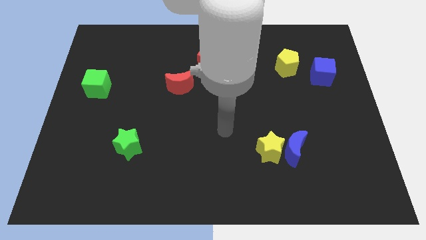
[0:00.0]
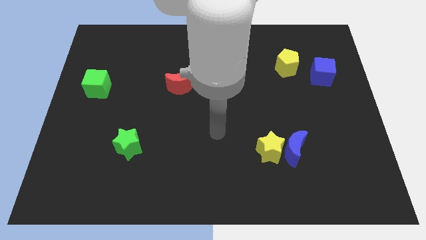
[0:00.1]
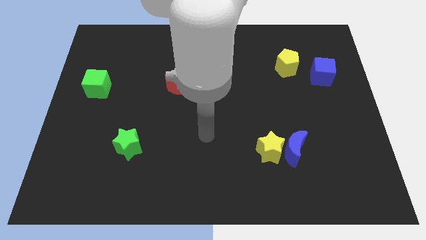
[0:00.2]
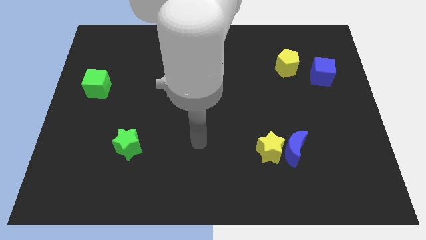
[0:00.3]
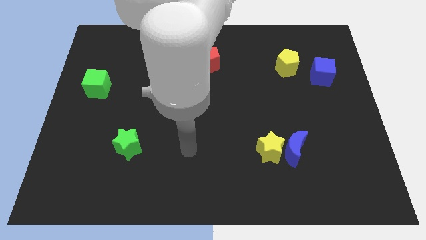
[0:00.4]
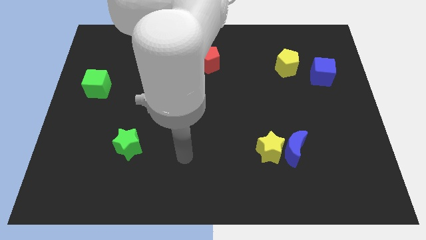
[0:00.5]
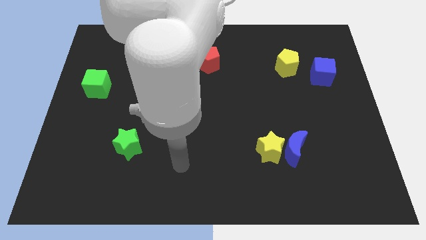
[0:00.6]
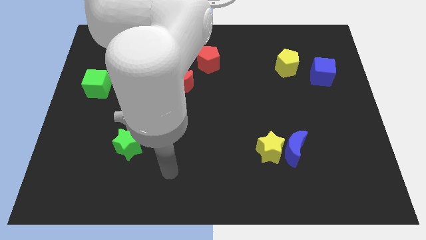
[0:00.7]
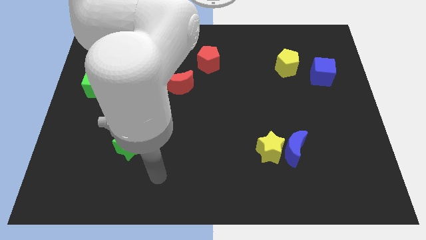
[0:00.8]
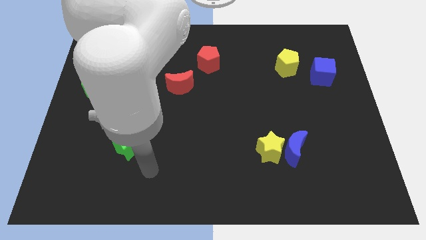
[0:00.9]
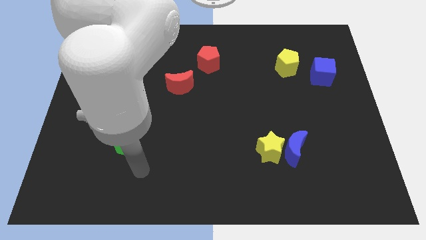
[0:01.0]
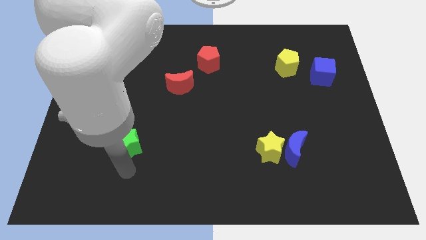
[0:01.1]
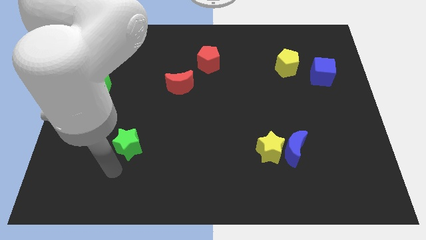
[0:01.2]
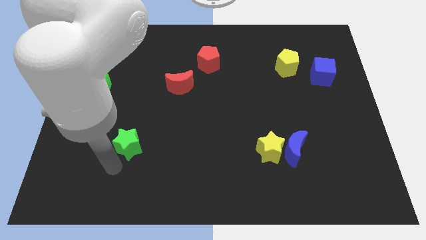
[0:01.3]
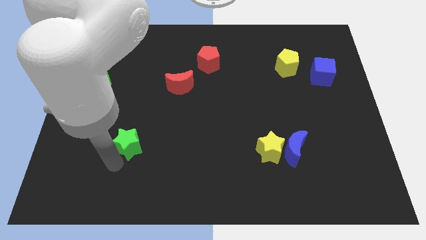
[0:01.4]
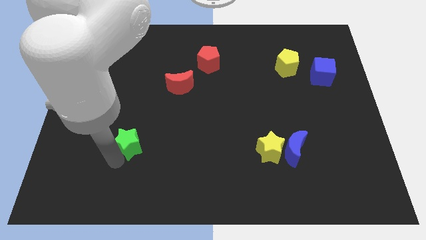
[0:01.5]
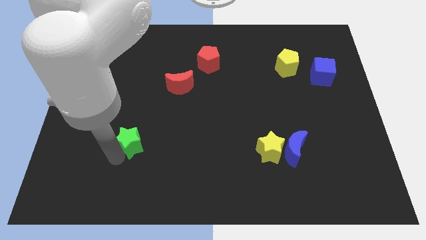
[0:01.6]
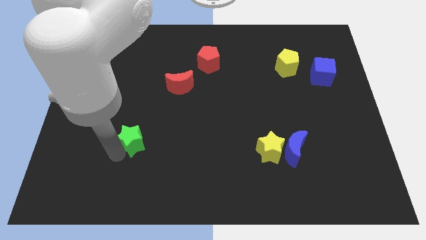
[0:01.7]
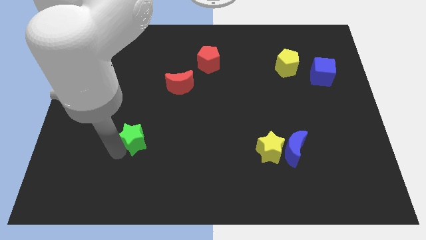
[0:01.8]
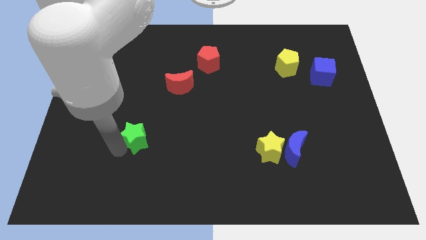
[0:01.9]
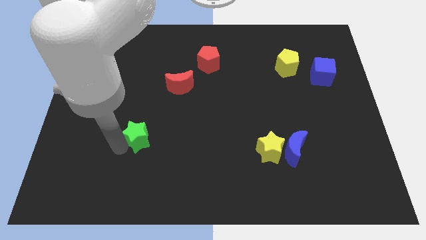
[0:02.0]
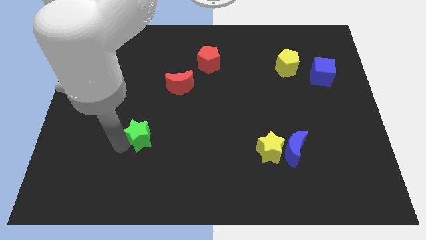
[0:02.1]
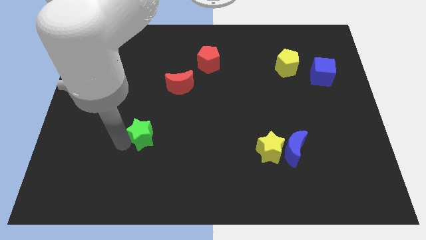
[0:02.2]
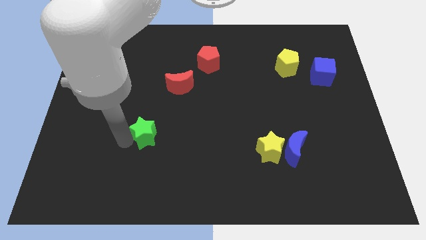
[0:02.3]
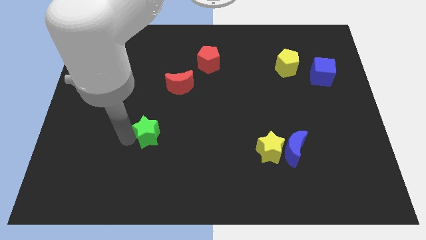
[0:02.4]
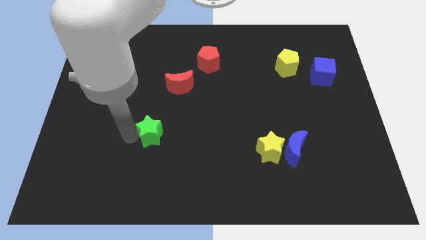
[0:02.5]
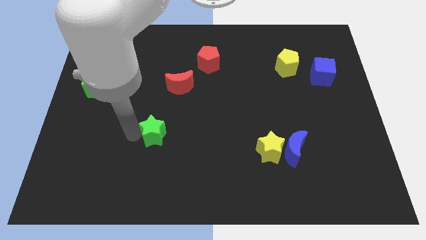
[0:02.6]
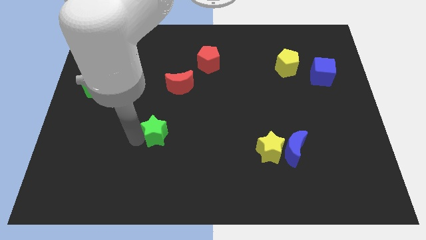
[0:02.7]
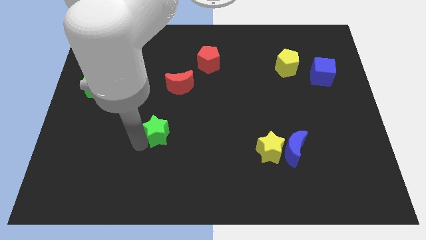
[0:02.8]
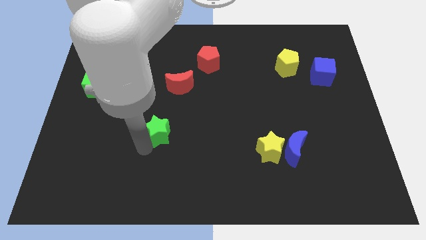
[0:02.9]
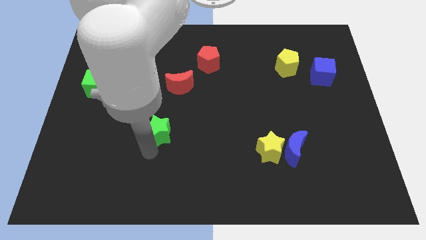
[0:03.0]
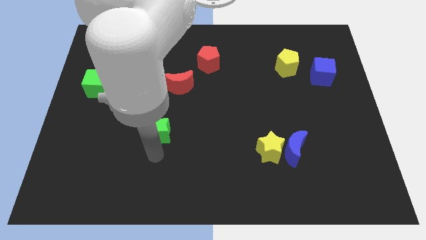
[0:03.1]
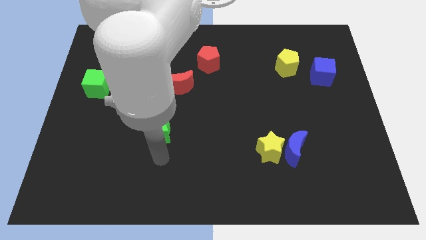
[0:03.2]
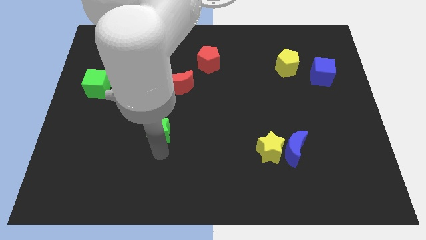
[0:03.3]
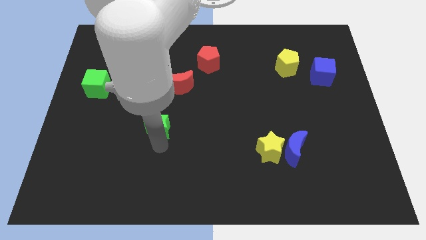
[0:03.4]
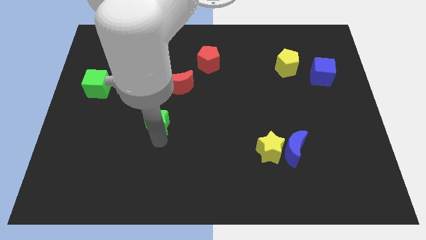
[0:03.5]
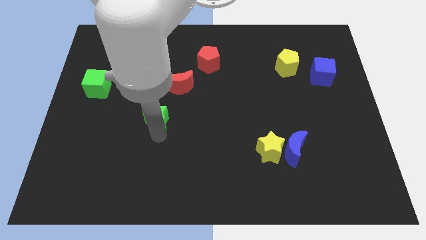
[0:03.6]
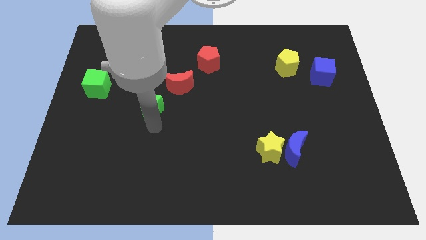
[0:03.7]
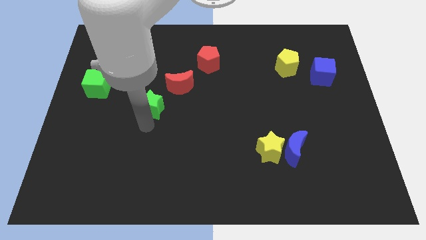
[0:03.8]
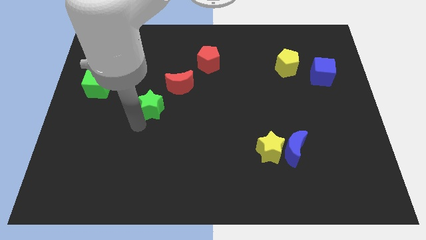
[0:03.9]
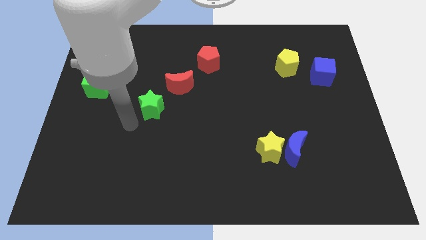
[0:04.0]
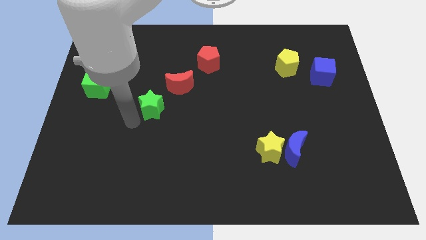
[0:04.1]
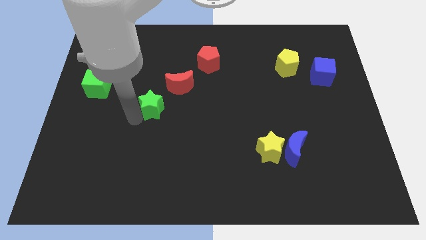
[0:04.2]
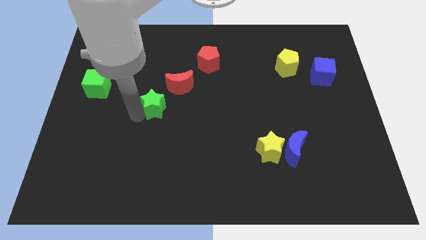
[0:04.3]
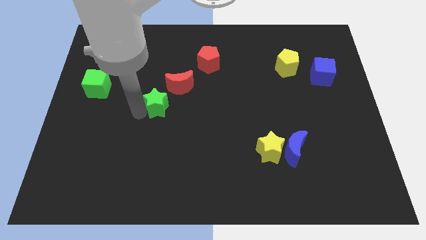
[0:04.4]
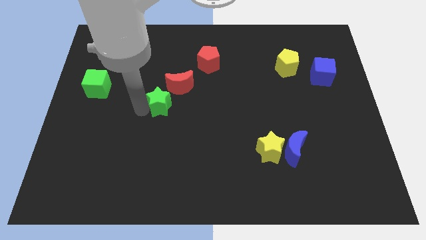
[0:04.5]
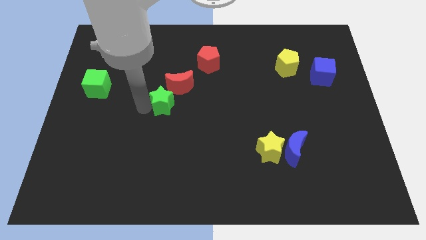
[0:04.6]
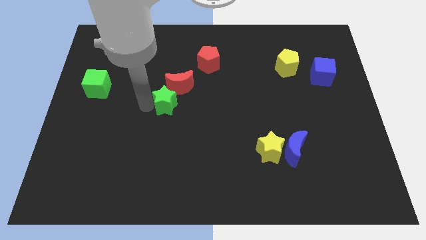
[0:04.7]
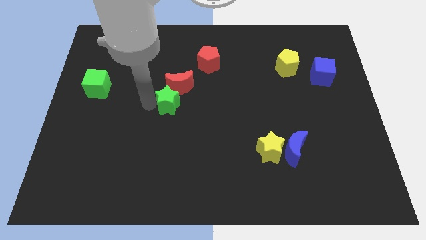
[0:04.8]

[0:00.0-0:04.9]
put the green star next to the red moon

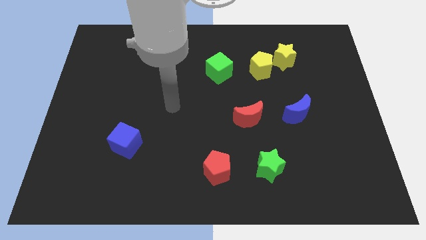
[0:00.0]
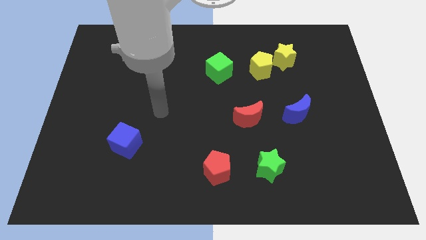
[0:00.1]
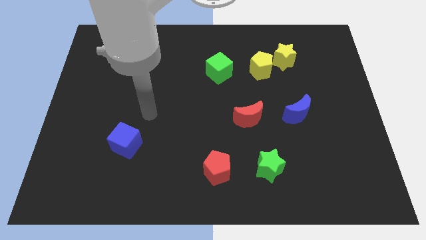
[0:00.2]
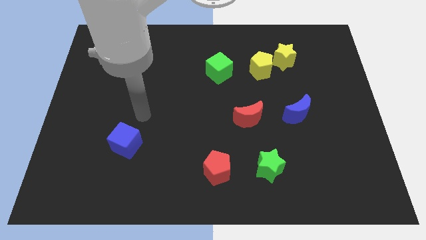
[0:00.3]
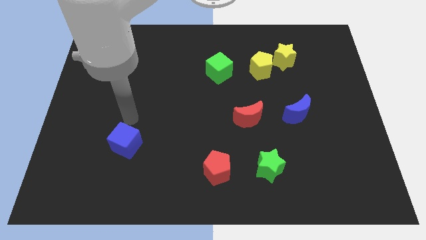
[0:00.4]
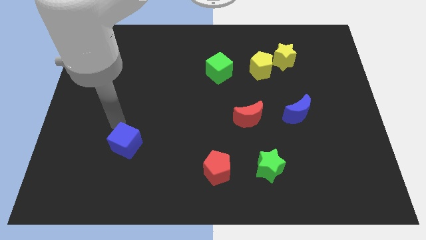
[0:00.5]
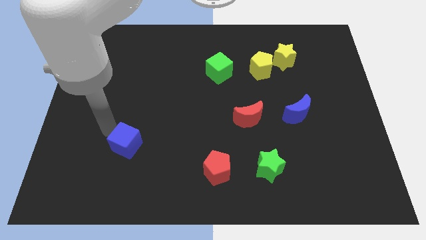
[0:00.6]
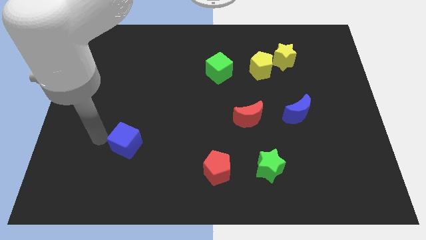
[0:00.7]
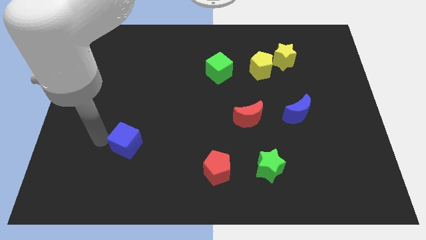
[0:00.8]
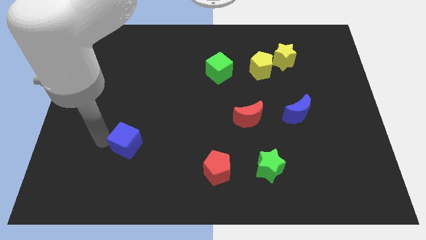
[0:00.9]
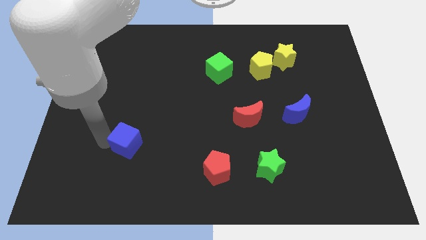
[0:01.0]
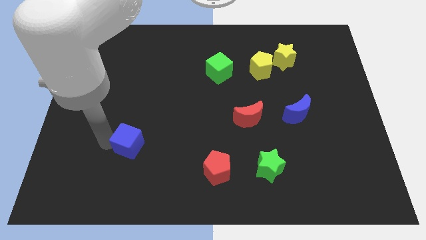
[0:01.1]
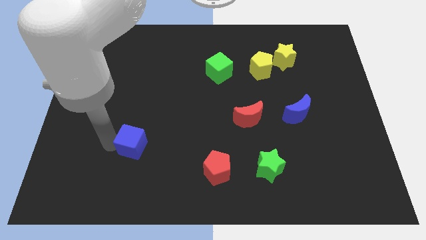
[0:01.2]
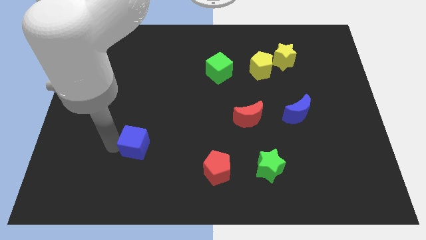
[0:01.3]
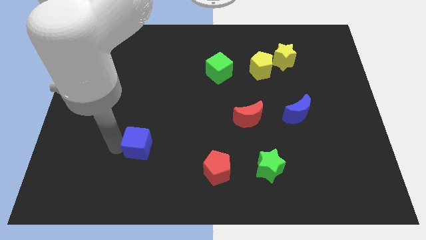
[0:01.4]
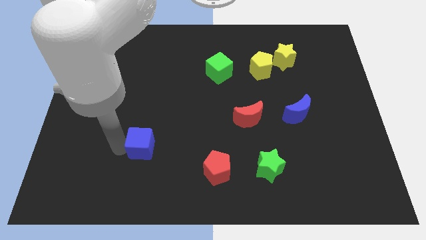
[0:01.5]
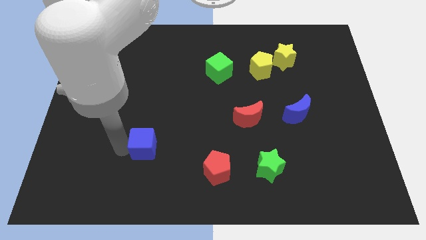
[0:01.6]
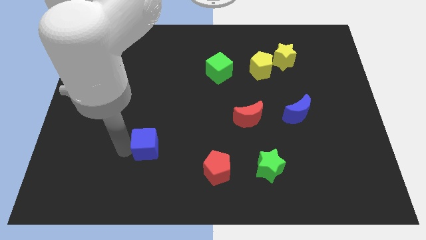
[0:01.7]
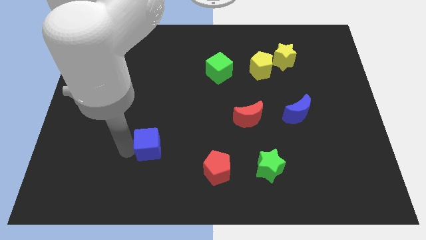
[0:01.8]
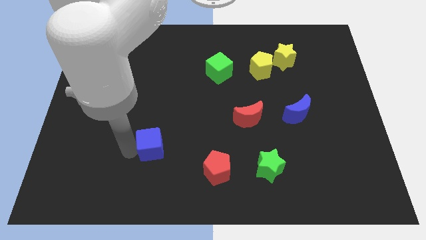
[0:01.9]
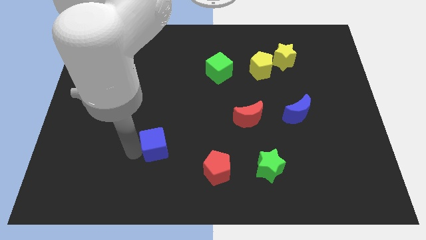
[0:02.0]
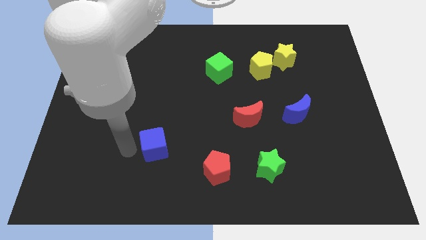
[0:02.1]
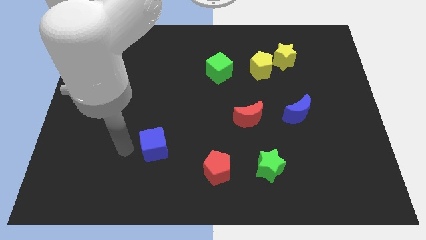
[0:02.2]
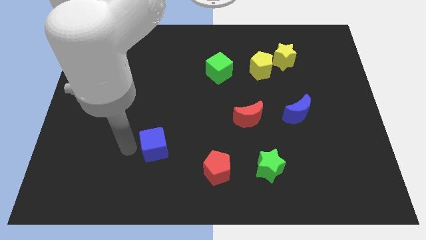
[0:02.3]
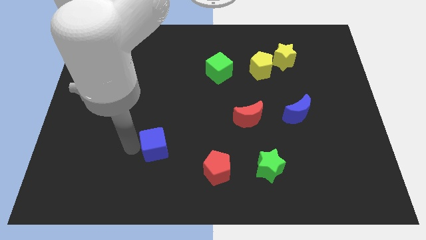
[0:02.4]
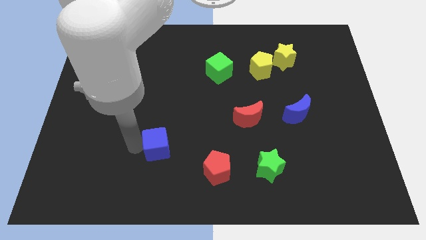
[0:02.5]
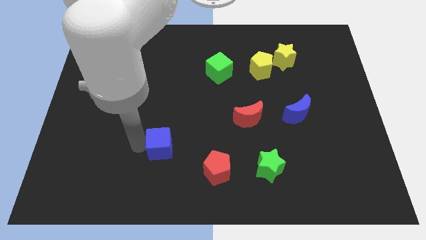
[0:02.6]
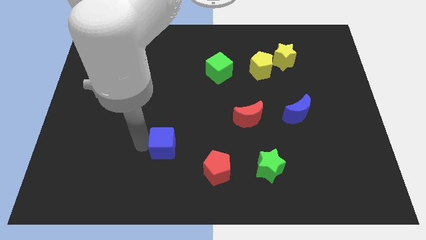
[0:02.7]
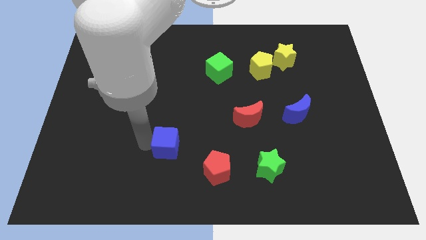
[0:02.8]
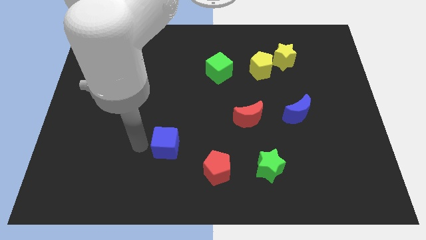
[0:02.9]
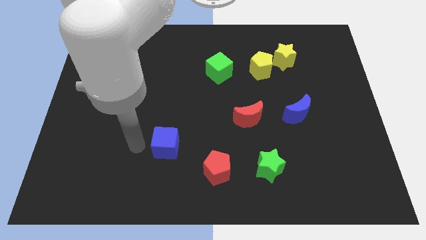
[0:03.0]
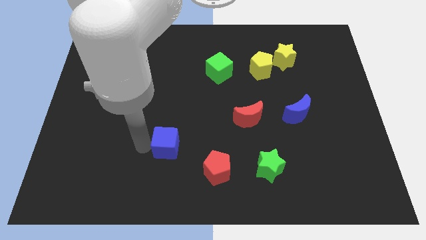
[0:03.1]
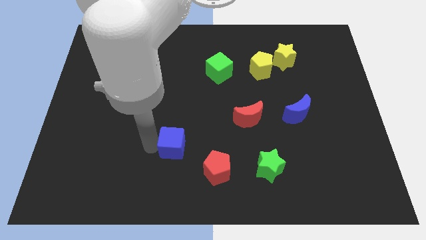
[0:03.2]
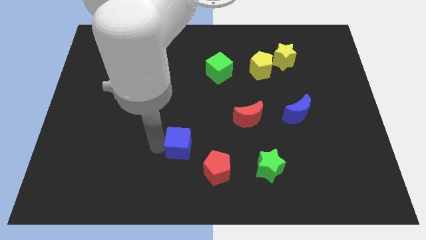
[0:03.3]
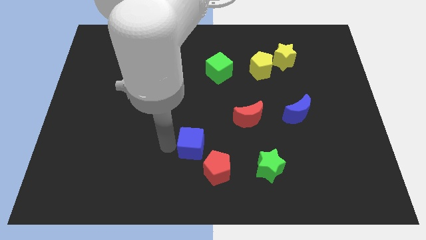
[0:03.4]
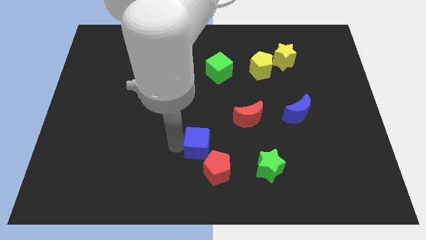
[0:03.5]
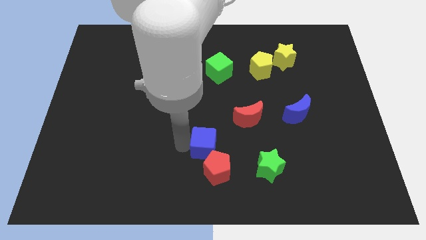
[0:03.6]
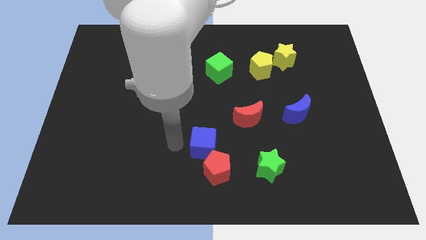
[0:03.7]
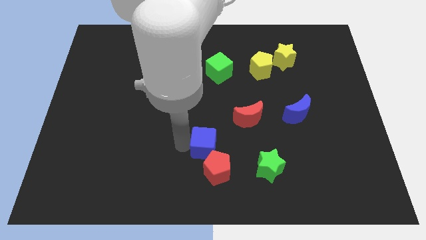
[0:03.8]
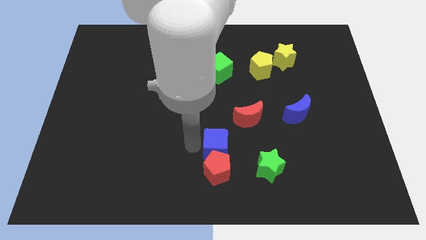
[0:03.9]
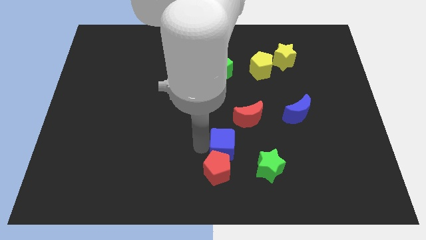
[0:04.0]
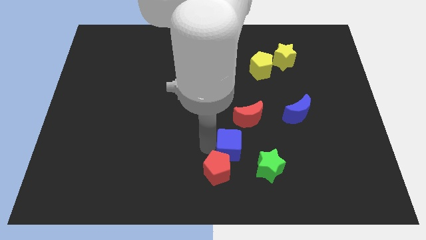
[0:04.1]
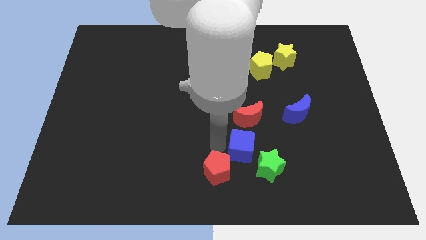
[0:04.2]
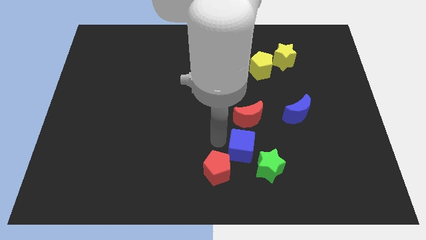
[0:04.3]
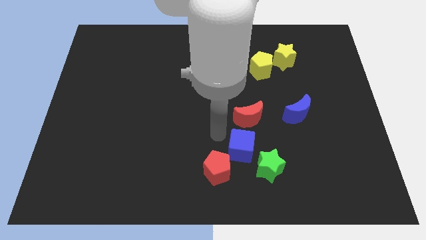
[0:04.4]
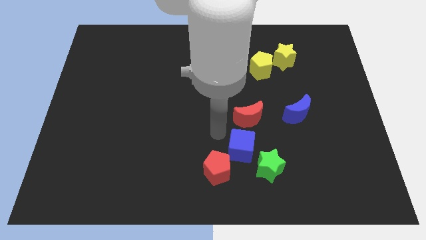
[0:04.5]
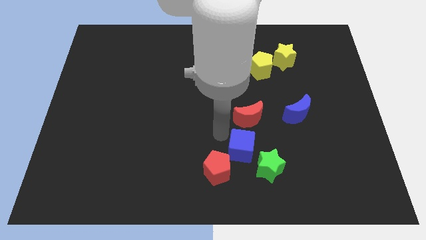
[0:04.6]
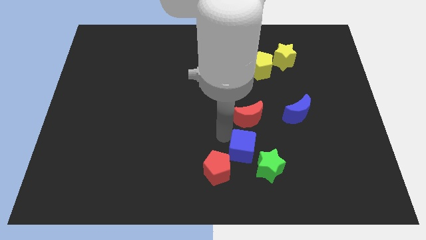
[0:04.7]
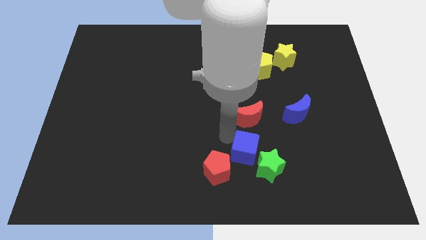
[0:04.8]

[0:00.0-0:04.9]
move the blue cube next to the green star
